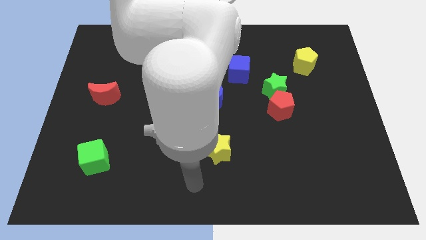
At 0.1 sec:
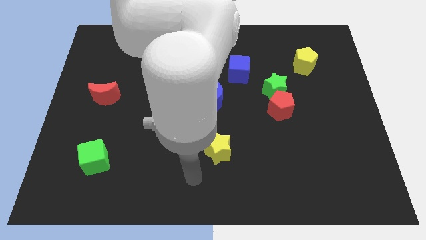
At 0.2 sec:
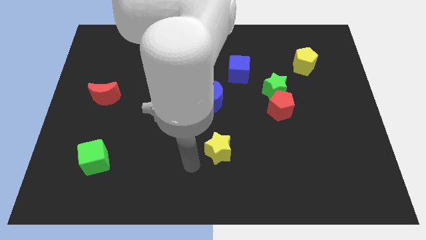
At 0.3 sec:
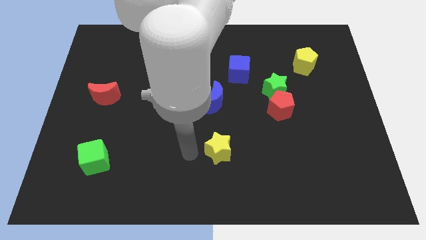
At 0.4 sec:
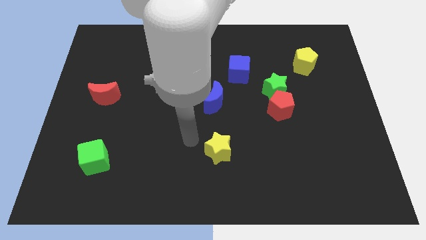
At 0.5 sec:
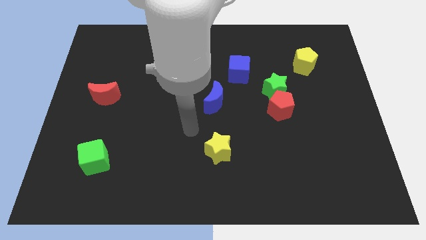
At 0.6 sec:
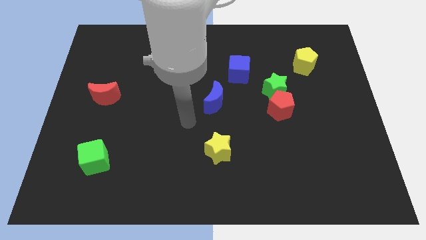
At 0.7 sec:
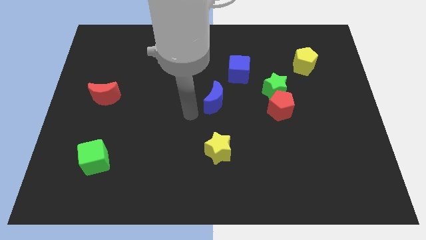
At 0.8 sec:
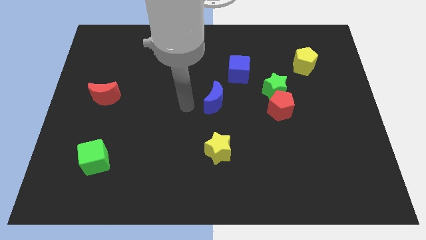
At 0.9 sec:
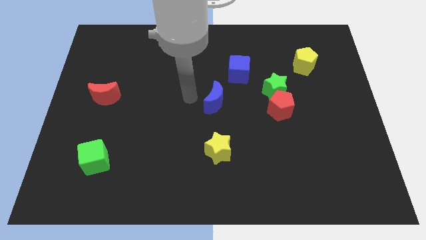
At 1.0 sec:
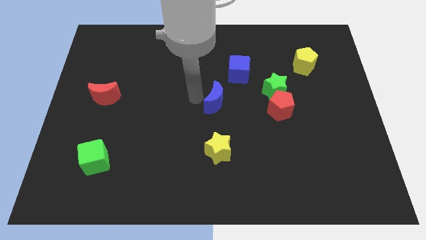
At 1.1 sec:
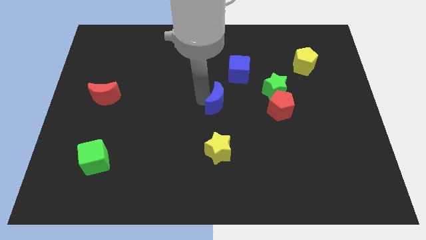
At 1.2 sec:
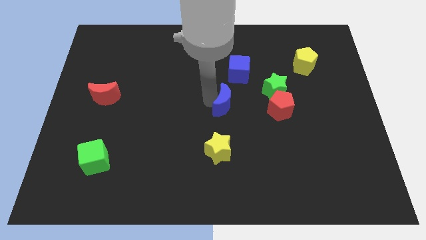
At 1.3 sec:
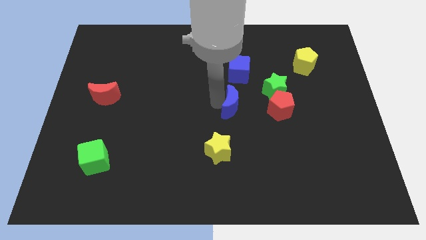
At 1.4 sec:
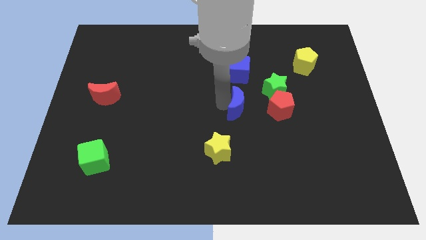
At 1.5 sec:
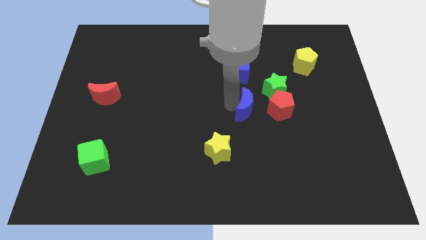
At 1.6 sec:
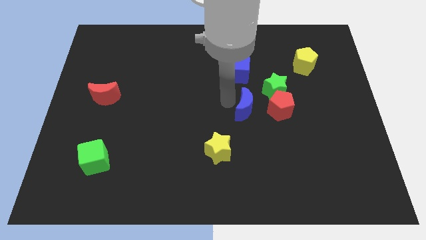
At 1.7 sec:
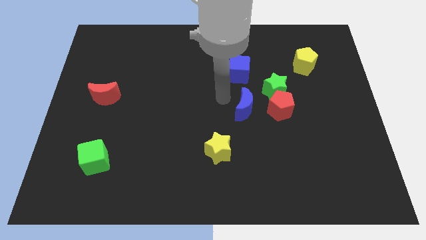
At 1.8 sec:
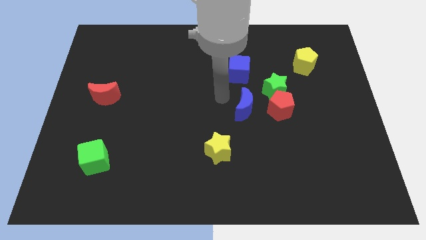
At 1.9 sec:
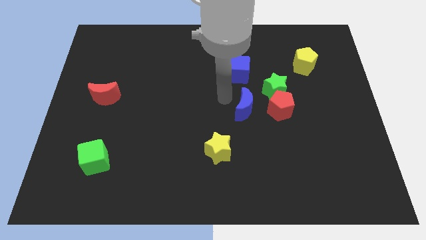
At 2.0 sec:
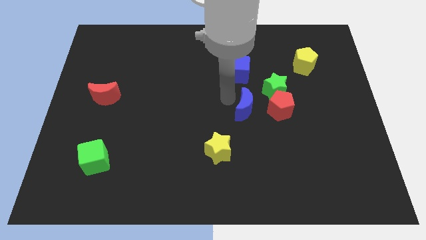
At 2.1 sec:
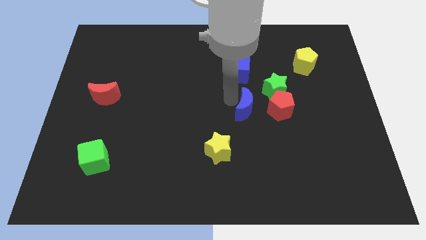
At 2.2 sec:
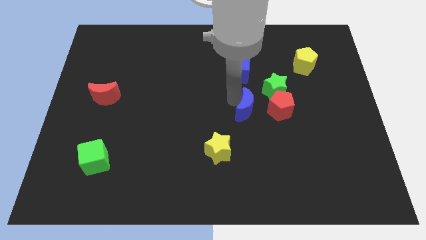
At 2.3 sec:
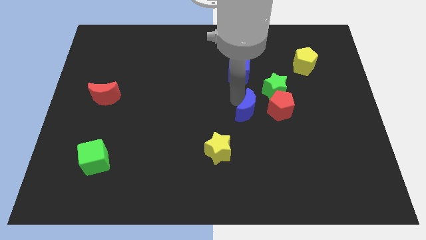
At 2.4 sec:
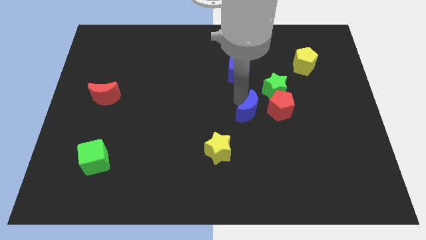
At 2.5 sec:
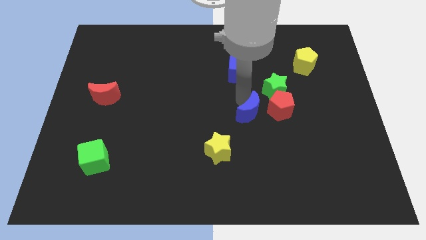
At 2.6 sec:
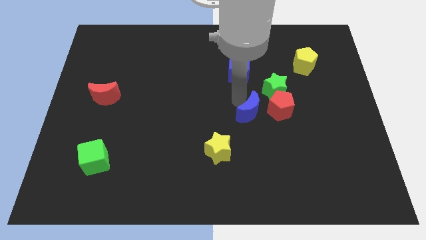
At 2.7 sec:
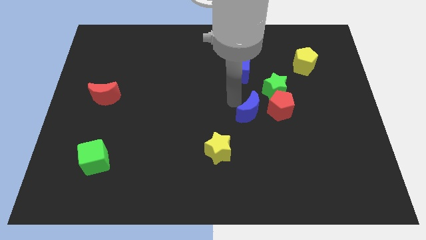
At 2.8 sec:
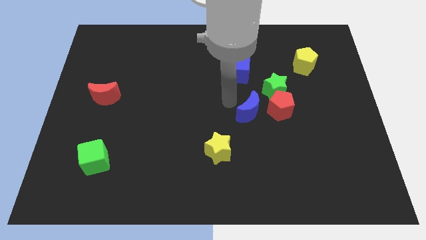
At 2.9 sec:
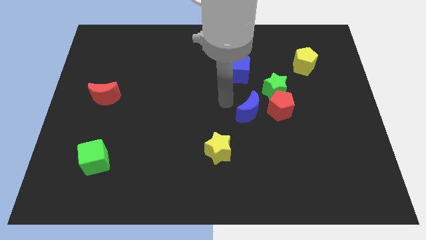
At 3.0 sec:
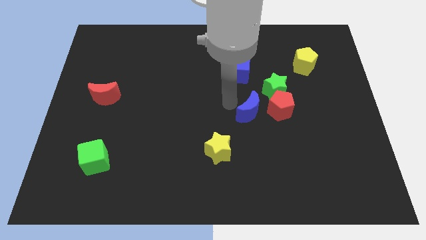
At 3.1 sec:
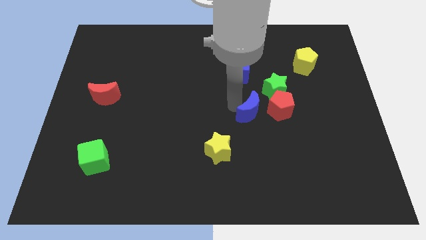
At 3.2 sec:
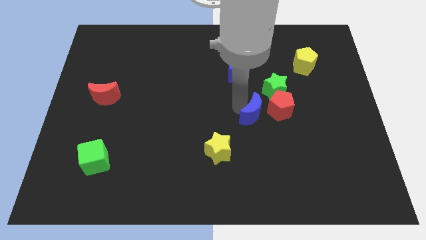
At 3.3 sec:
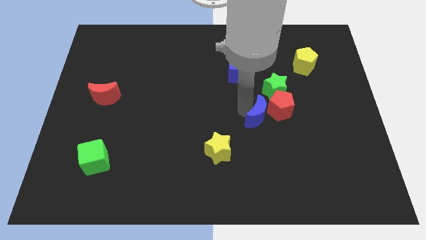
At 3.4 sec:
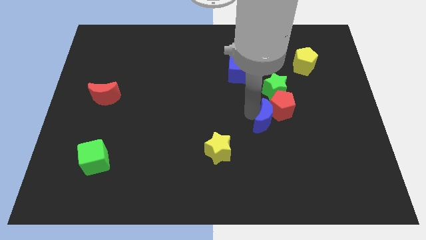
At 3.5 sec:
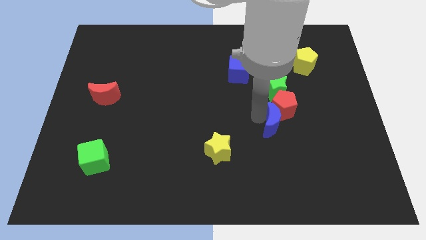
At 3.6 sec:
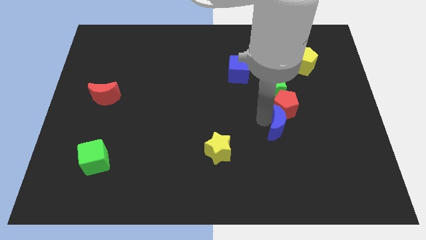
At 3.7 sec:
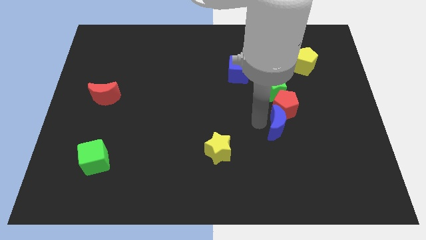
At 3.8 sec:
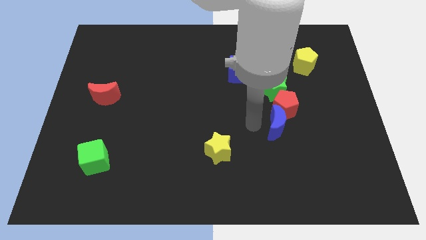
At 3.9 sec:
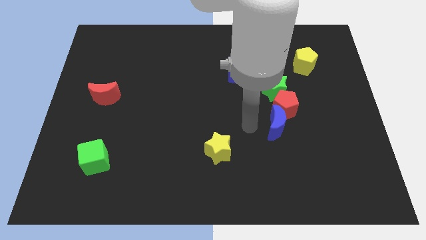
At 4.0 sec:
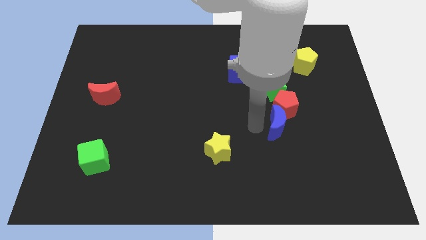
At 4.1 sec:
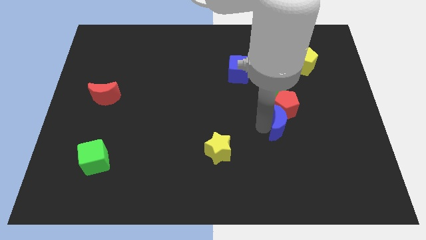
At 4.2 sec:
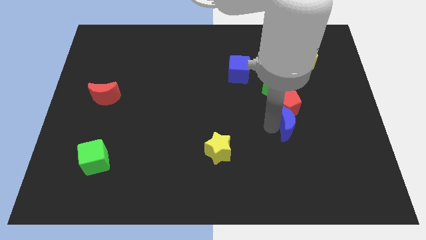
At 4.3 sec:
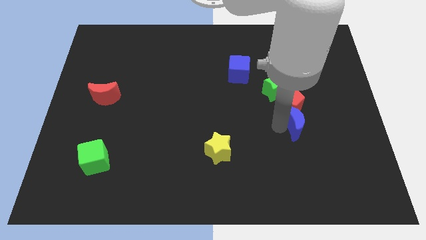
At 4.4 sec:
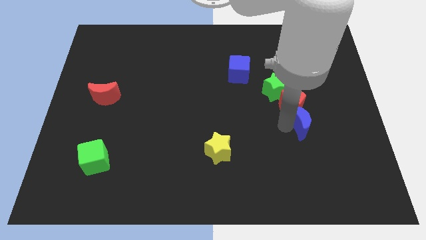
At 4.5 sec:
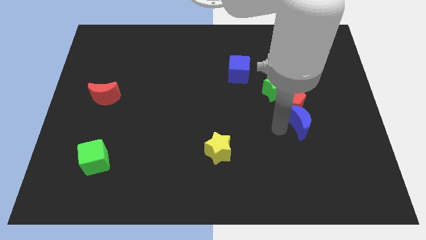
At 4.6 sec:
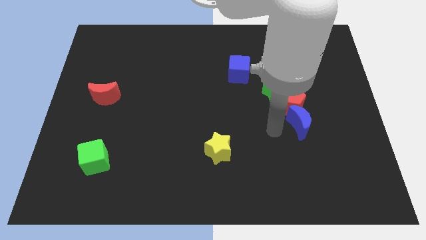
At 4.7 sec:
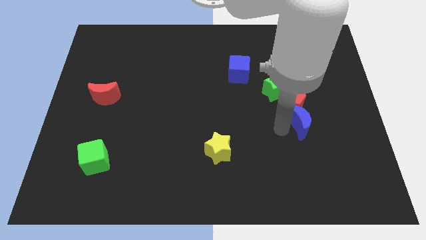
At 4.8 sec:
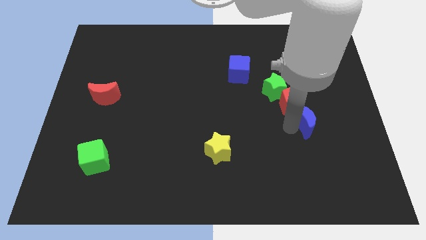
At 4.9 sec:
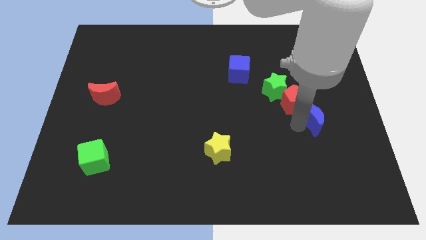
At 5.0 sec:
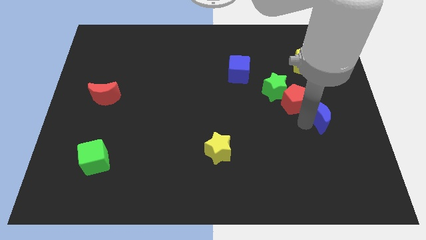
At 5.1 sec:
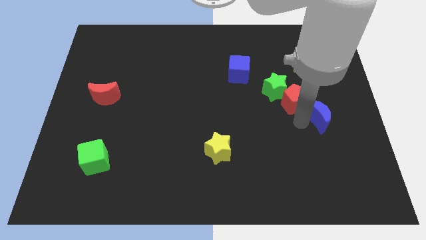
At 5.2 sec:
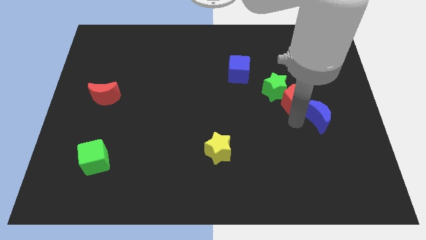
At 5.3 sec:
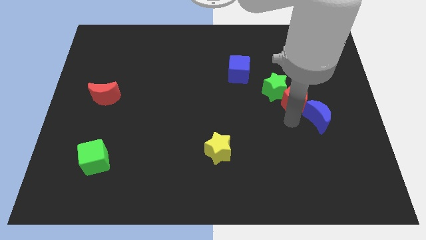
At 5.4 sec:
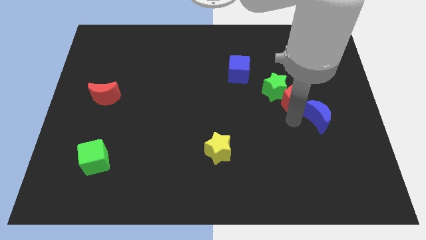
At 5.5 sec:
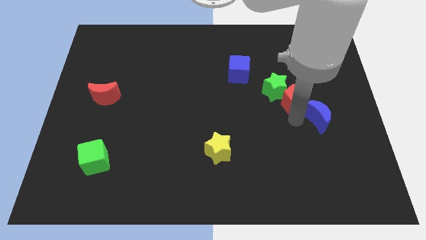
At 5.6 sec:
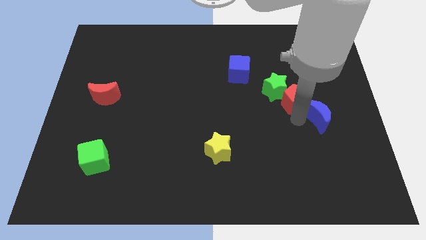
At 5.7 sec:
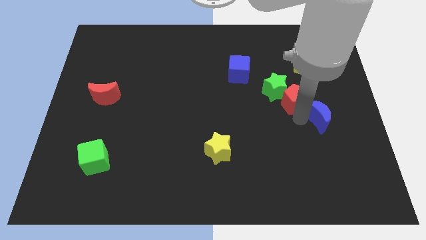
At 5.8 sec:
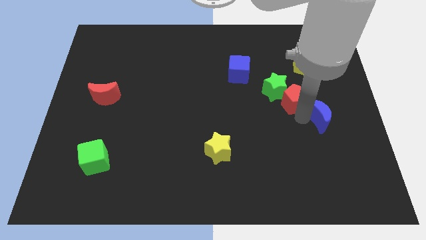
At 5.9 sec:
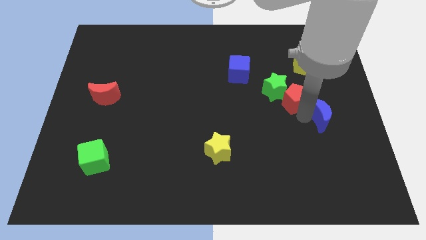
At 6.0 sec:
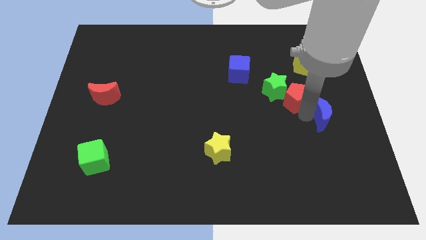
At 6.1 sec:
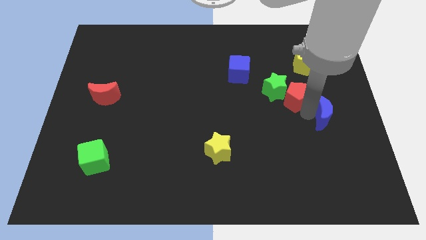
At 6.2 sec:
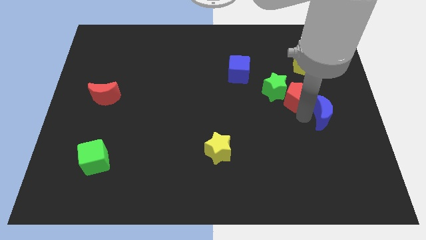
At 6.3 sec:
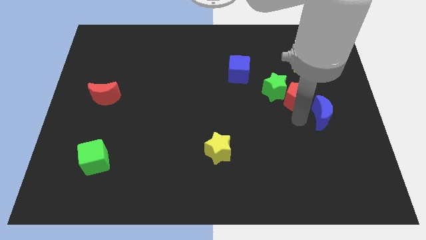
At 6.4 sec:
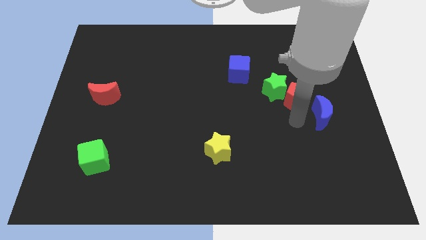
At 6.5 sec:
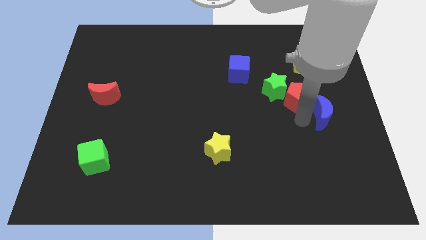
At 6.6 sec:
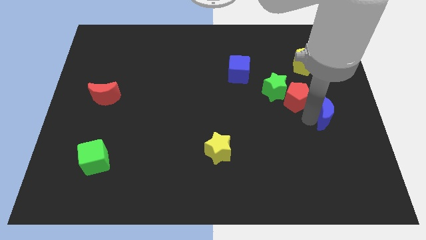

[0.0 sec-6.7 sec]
move the blue moon to the right side

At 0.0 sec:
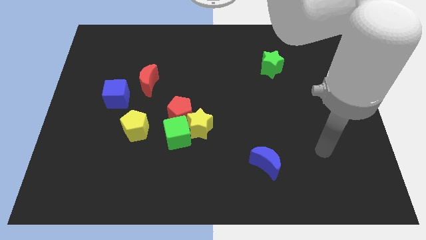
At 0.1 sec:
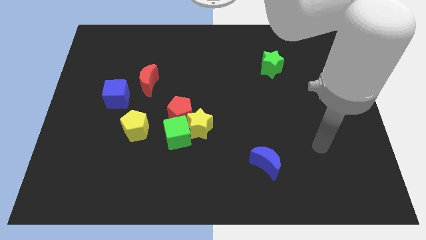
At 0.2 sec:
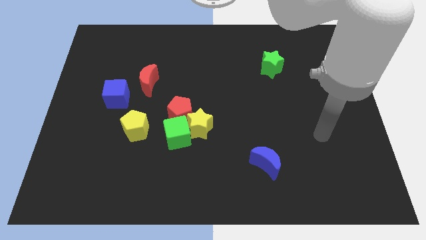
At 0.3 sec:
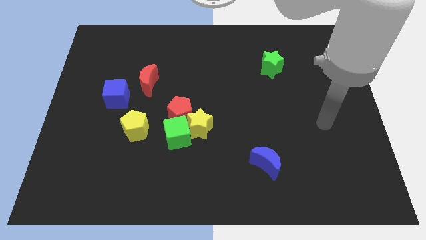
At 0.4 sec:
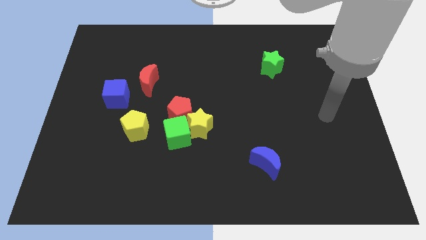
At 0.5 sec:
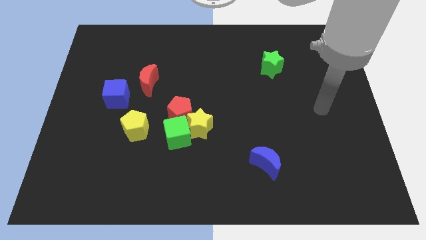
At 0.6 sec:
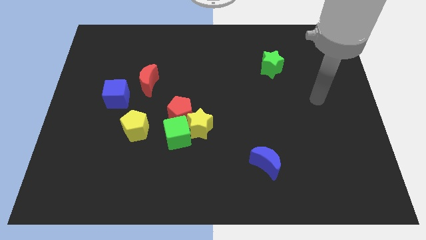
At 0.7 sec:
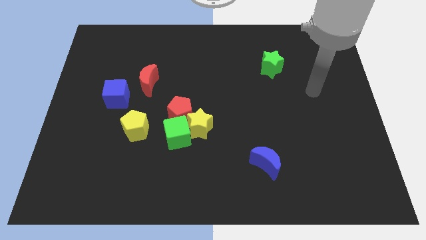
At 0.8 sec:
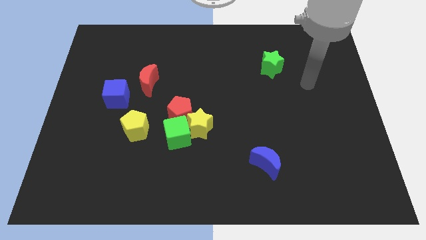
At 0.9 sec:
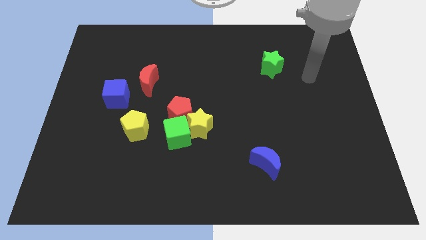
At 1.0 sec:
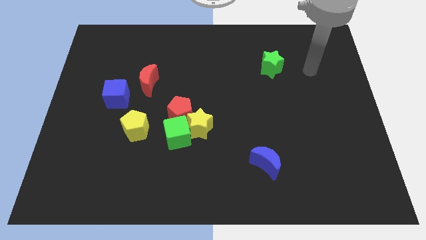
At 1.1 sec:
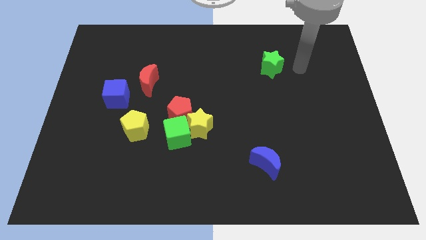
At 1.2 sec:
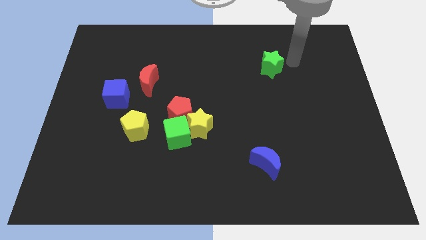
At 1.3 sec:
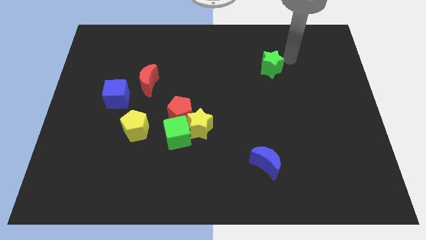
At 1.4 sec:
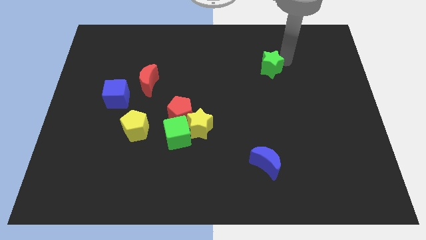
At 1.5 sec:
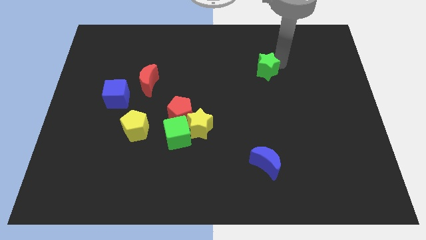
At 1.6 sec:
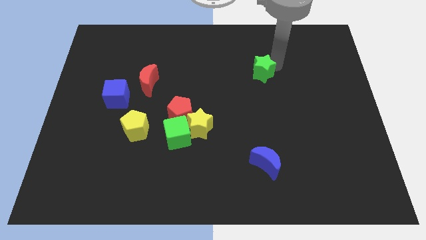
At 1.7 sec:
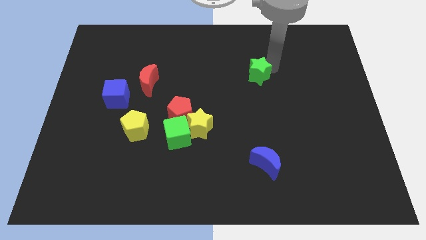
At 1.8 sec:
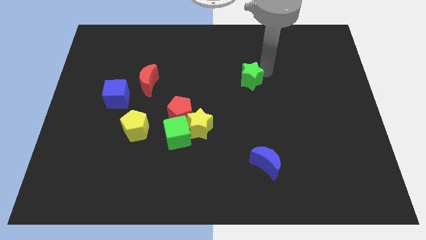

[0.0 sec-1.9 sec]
slide the green star to the center
